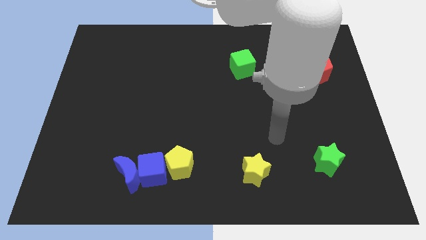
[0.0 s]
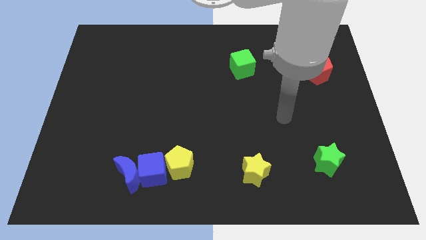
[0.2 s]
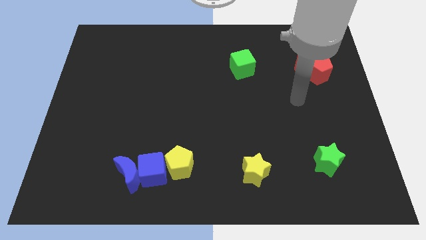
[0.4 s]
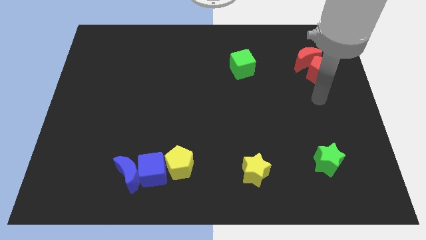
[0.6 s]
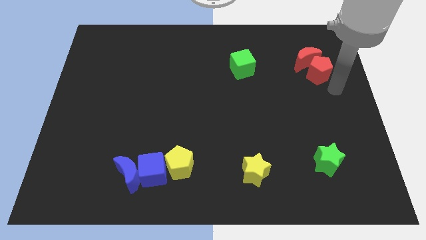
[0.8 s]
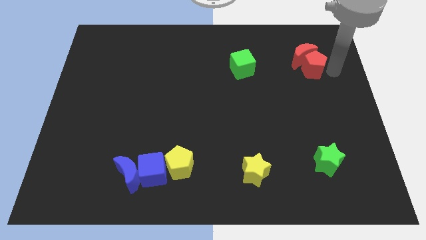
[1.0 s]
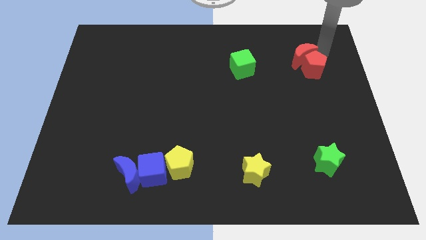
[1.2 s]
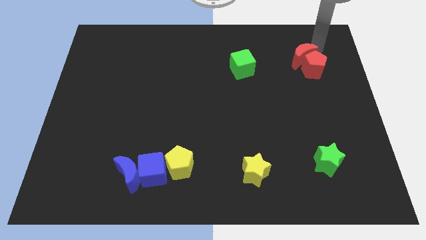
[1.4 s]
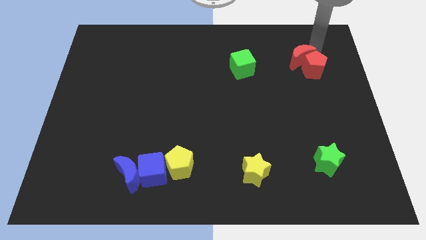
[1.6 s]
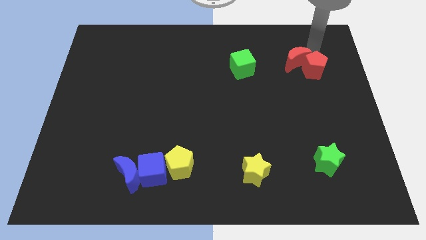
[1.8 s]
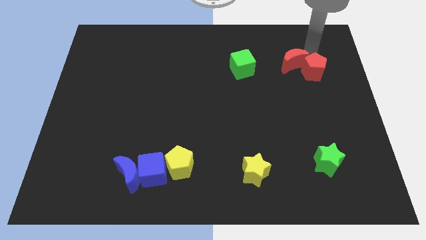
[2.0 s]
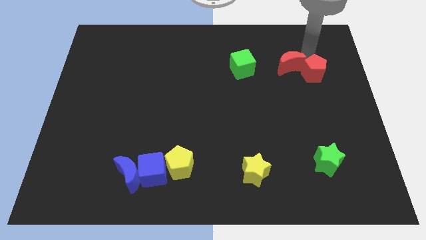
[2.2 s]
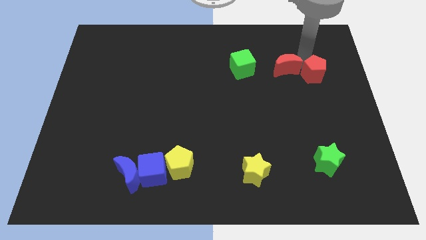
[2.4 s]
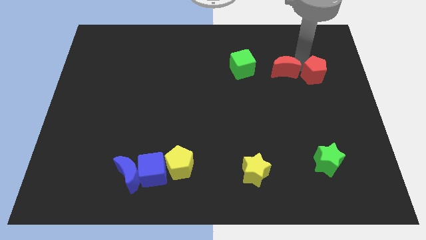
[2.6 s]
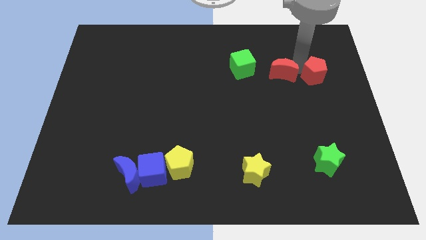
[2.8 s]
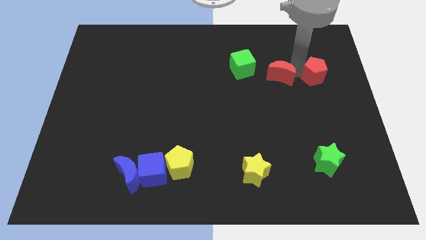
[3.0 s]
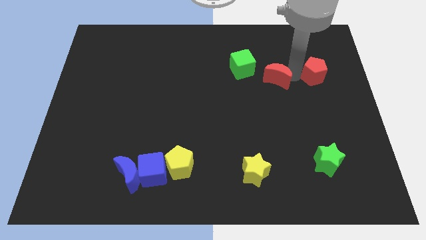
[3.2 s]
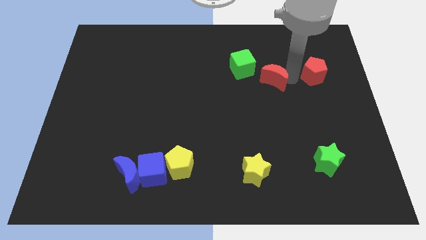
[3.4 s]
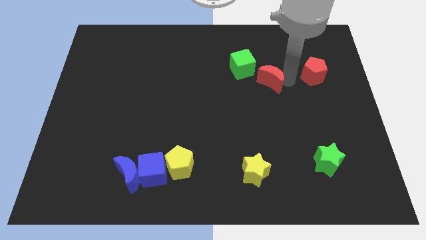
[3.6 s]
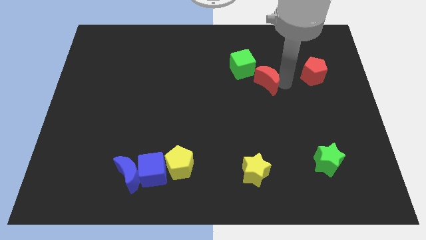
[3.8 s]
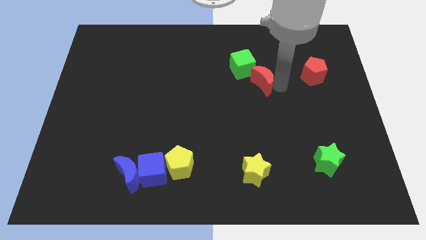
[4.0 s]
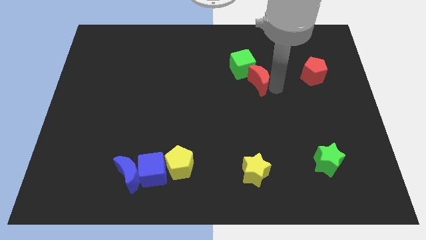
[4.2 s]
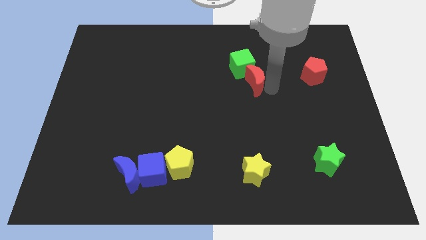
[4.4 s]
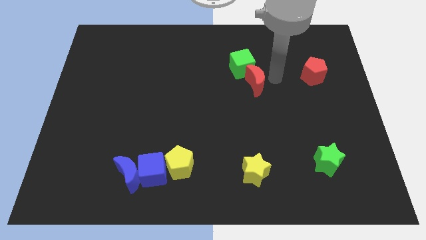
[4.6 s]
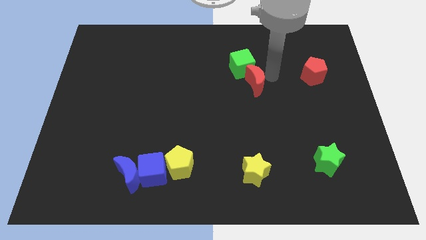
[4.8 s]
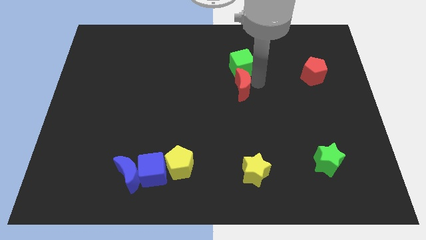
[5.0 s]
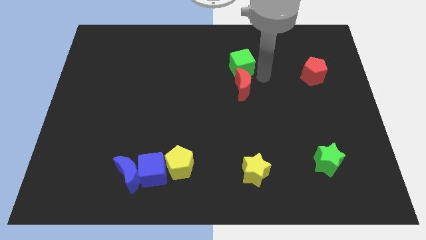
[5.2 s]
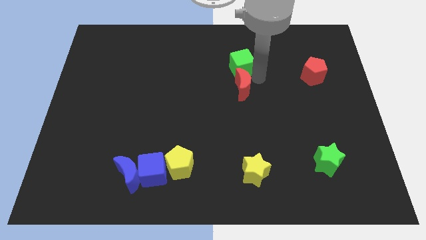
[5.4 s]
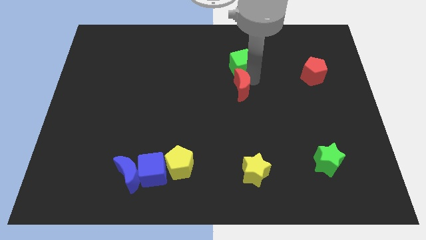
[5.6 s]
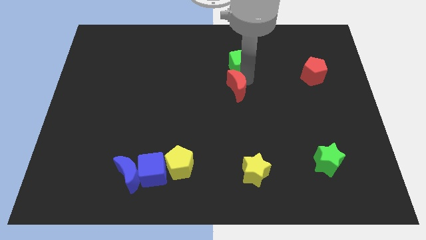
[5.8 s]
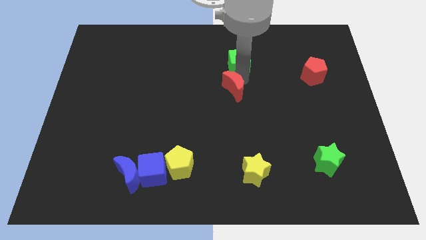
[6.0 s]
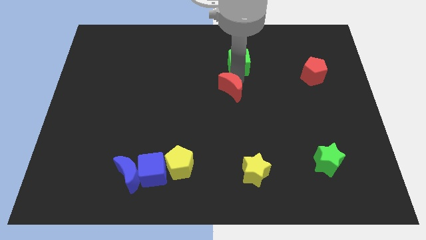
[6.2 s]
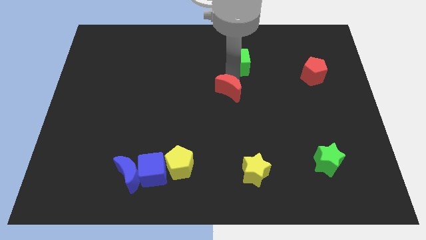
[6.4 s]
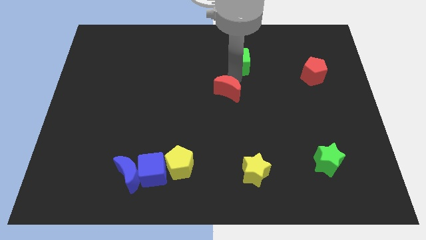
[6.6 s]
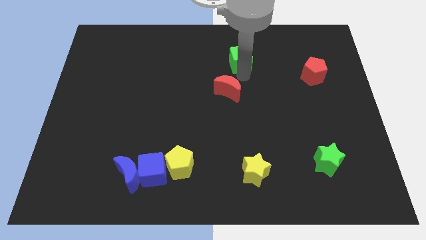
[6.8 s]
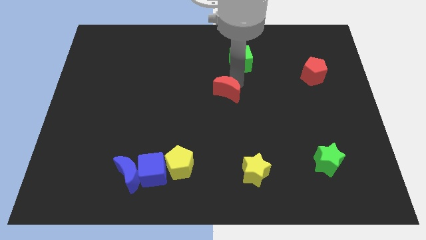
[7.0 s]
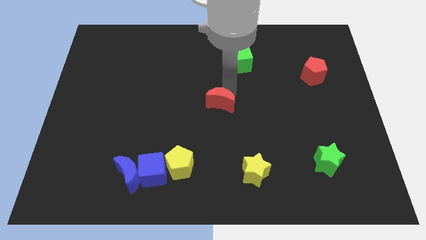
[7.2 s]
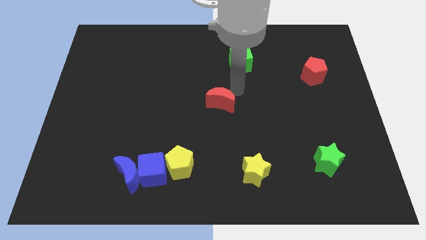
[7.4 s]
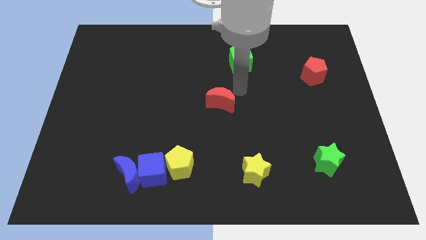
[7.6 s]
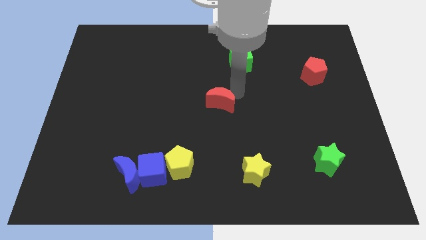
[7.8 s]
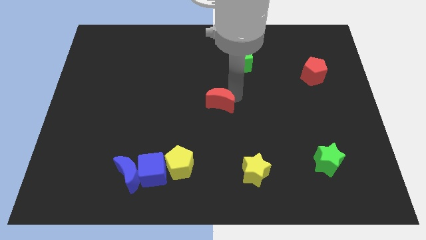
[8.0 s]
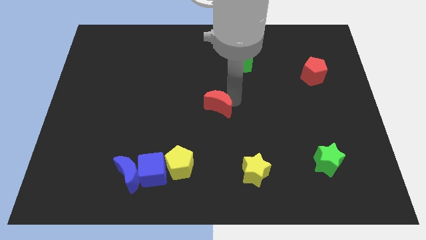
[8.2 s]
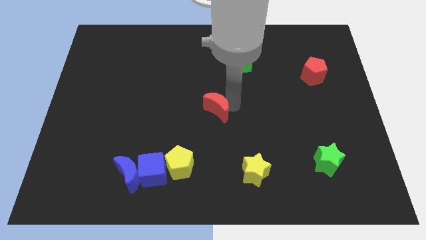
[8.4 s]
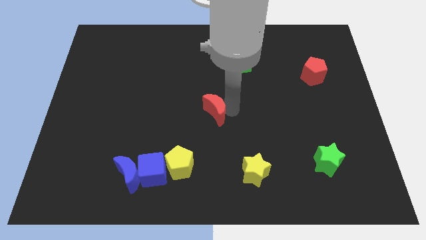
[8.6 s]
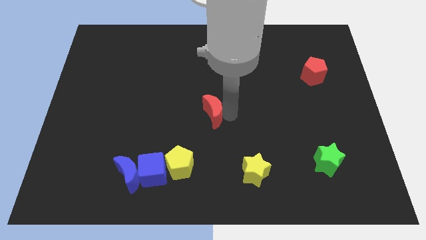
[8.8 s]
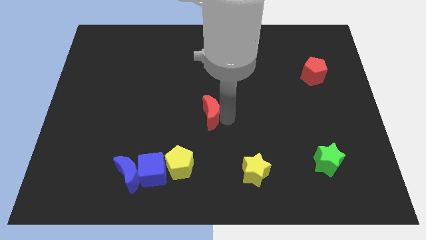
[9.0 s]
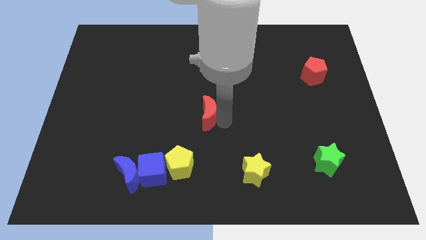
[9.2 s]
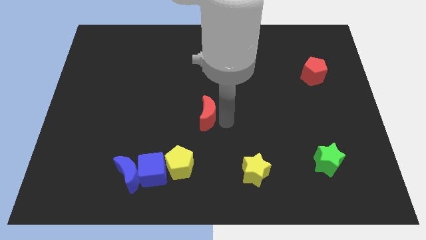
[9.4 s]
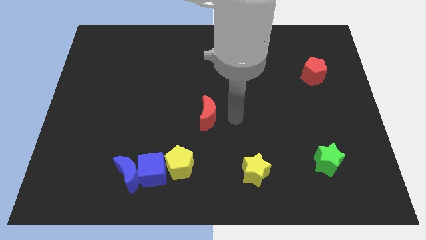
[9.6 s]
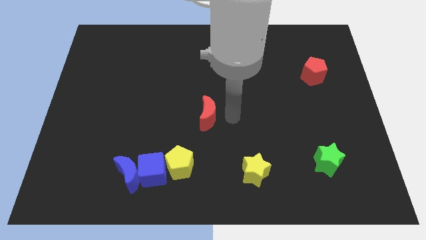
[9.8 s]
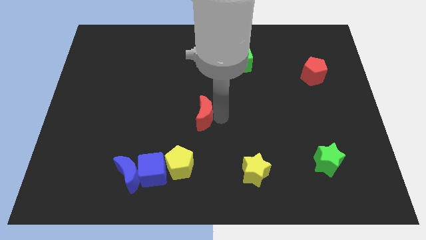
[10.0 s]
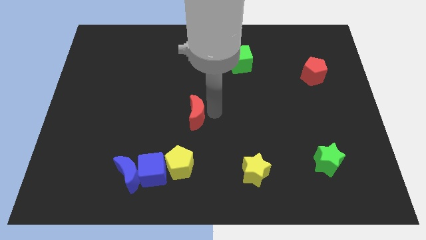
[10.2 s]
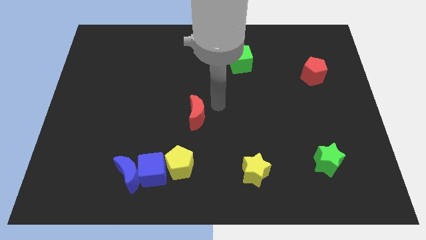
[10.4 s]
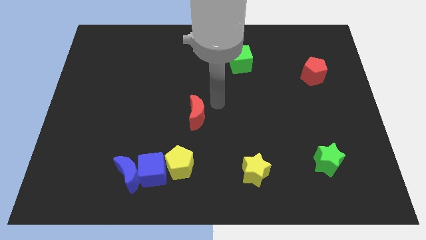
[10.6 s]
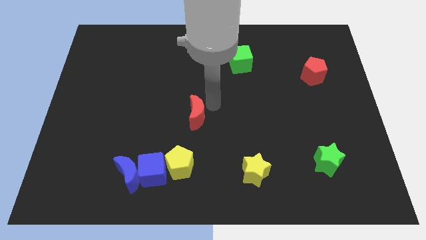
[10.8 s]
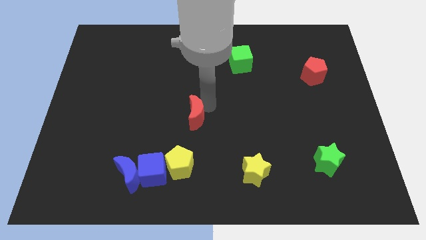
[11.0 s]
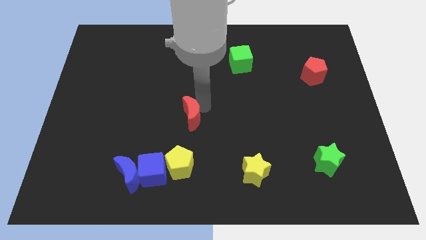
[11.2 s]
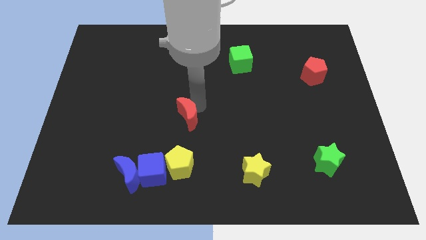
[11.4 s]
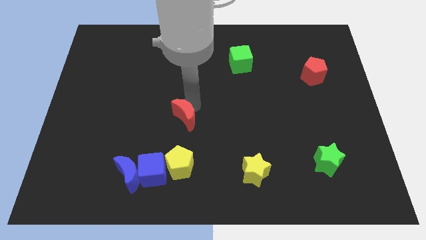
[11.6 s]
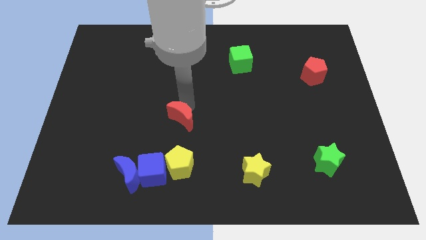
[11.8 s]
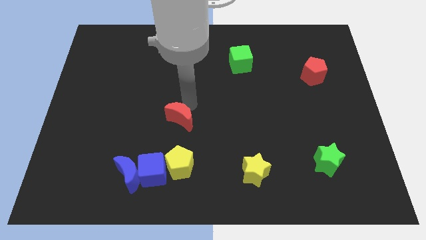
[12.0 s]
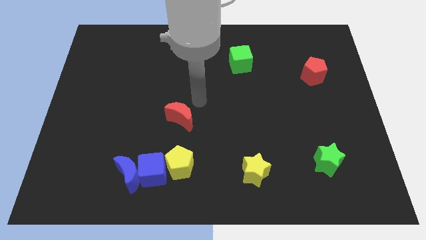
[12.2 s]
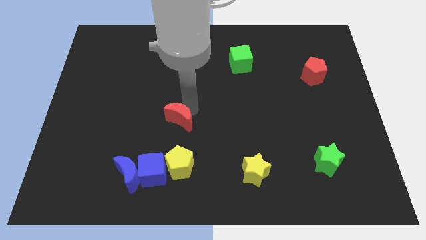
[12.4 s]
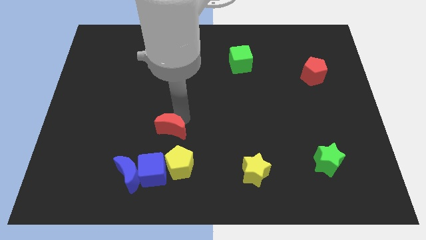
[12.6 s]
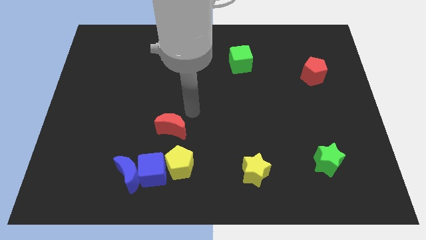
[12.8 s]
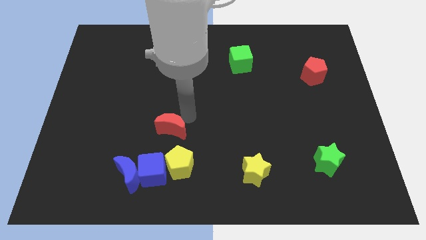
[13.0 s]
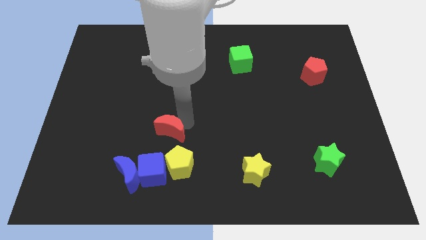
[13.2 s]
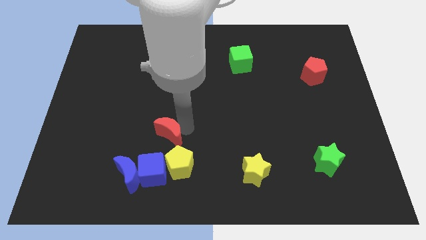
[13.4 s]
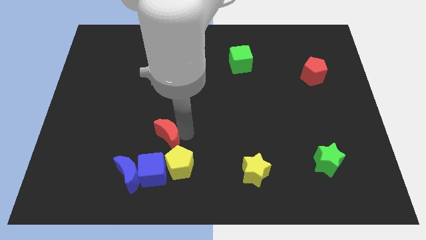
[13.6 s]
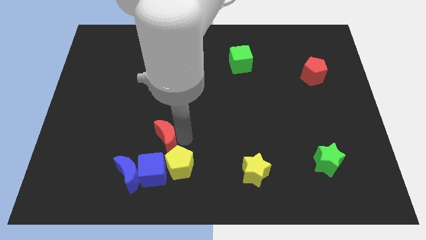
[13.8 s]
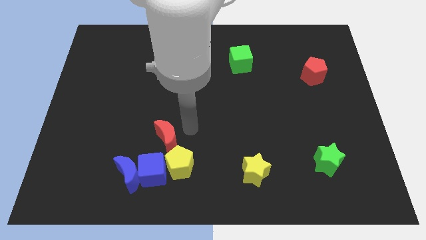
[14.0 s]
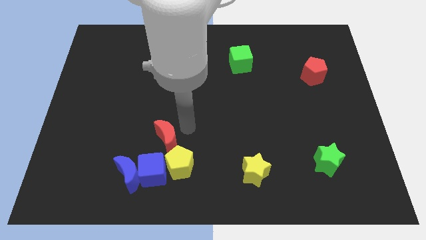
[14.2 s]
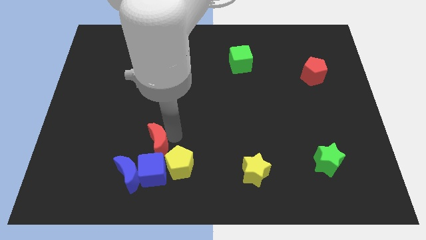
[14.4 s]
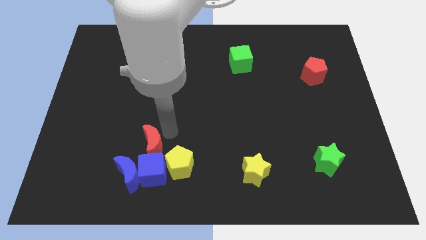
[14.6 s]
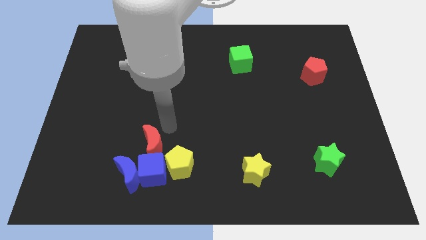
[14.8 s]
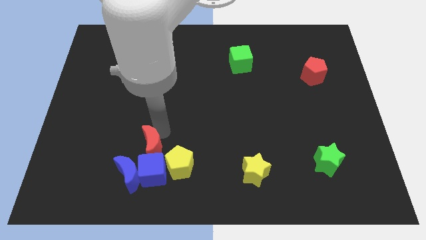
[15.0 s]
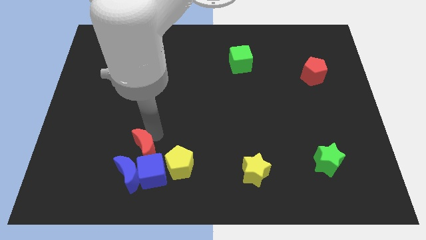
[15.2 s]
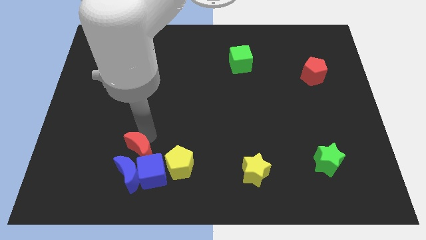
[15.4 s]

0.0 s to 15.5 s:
move the red moon towards the blue moon

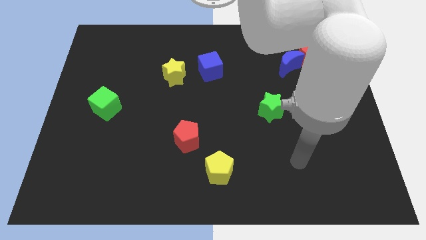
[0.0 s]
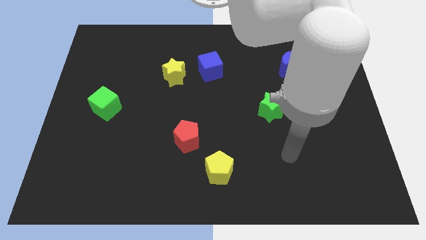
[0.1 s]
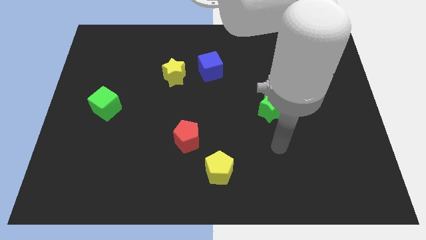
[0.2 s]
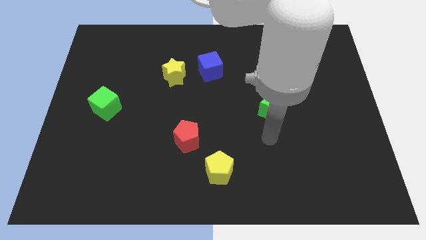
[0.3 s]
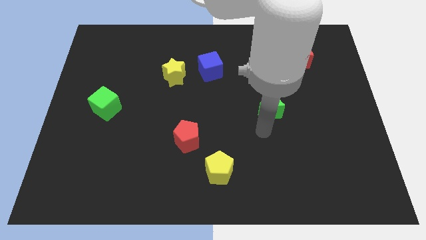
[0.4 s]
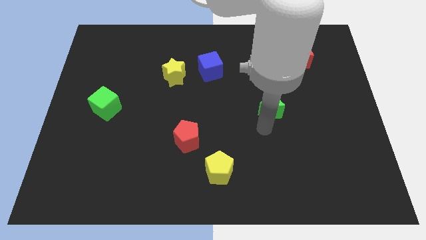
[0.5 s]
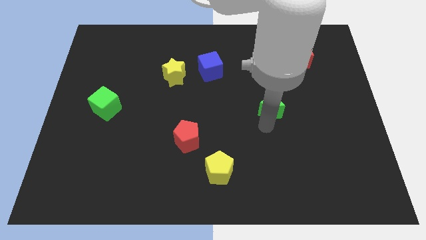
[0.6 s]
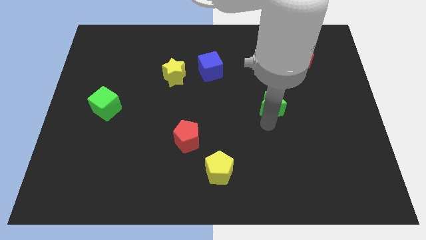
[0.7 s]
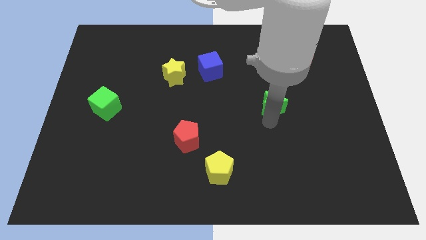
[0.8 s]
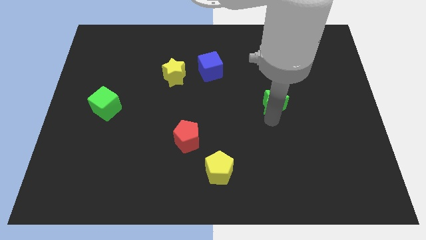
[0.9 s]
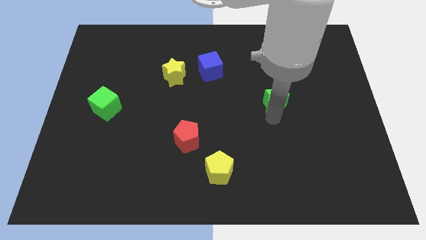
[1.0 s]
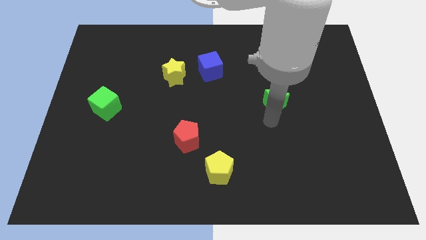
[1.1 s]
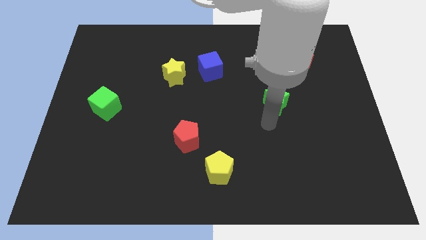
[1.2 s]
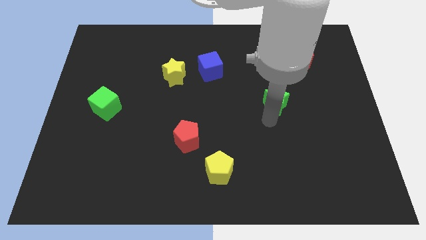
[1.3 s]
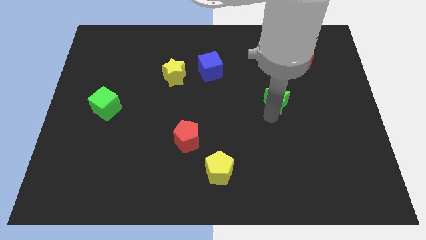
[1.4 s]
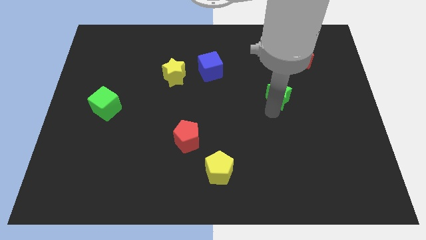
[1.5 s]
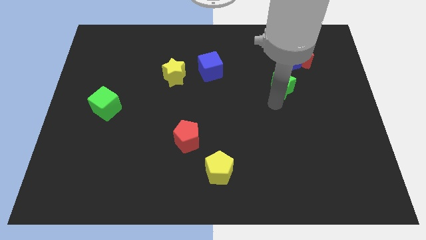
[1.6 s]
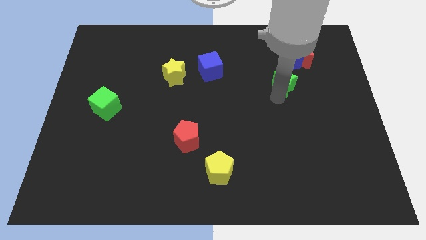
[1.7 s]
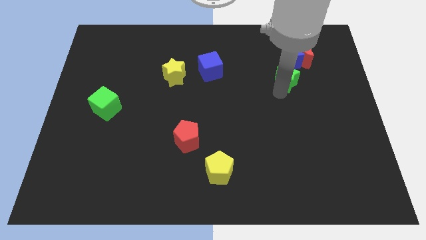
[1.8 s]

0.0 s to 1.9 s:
push the green star towards the blue moon
